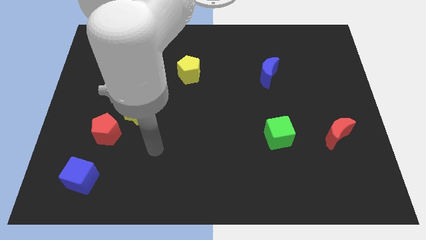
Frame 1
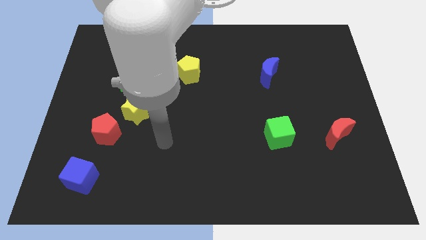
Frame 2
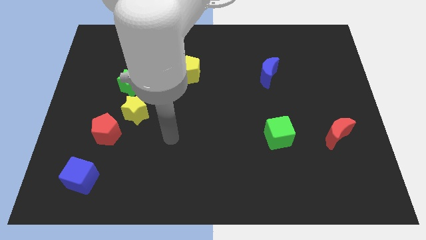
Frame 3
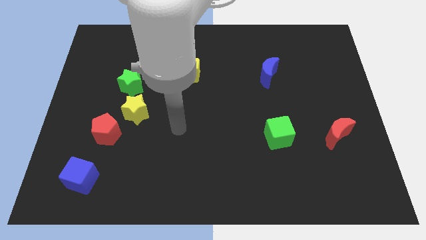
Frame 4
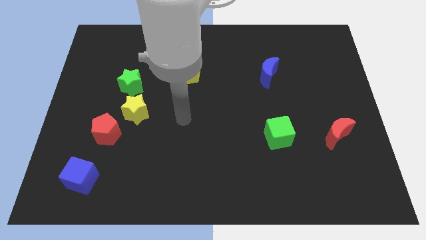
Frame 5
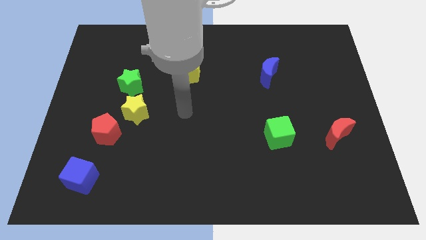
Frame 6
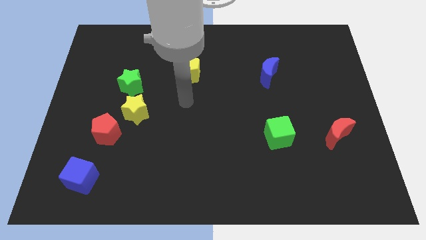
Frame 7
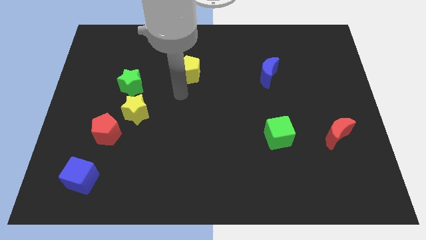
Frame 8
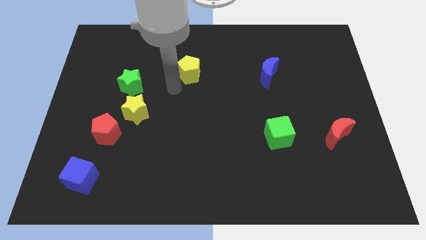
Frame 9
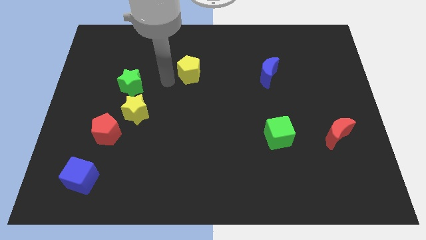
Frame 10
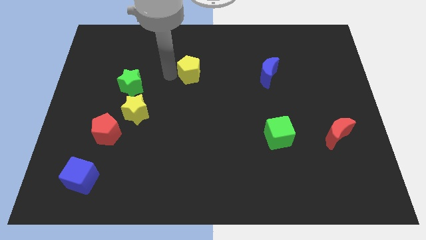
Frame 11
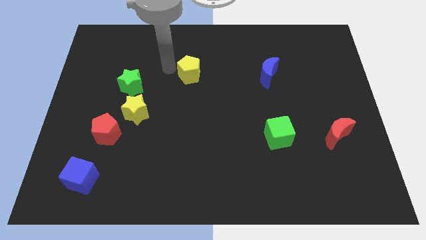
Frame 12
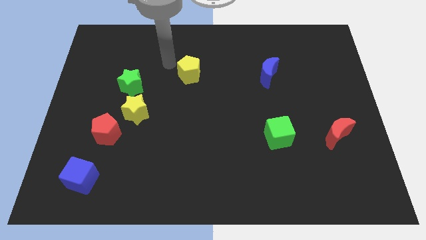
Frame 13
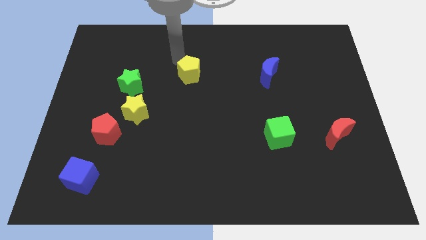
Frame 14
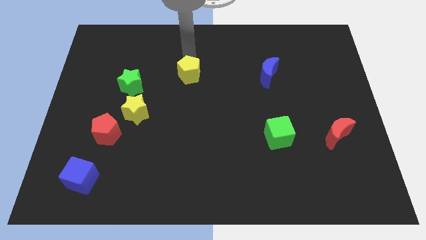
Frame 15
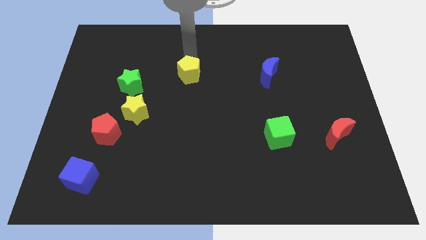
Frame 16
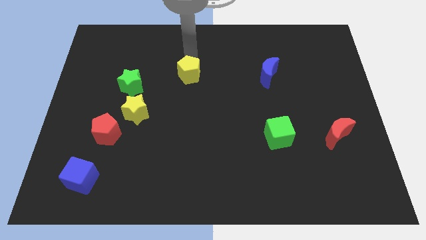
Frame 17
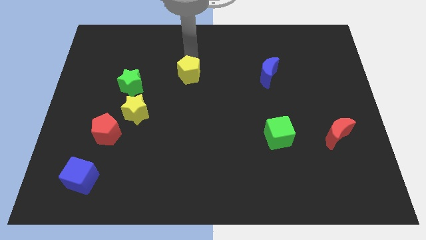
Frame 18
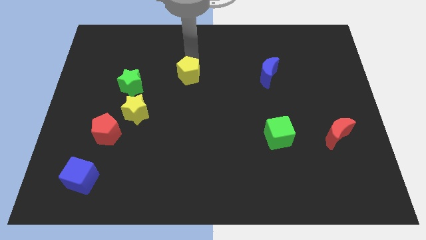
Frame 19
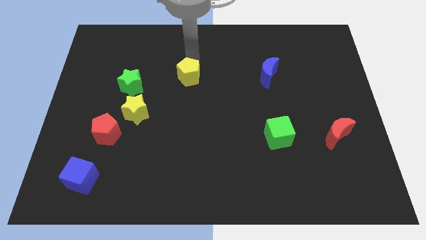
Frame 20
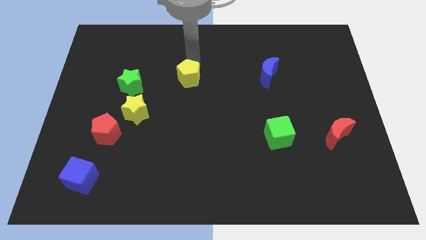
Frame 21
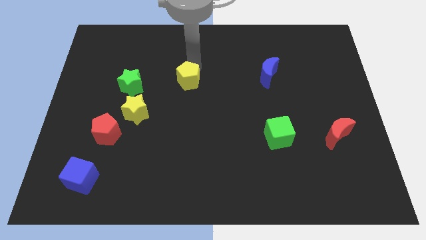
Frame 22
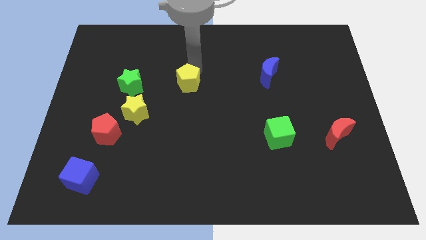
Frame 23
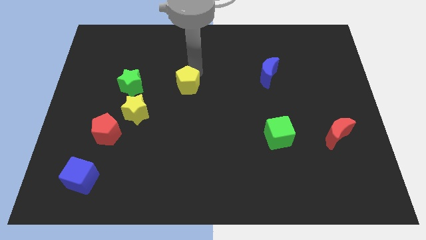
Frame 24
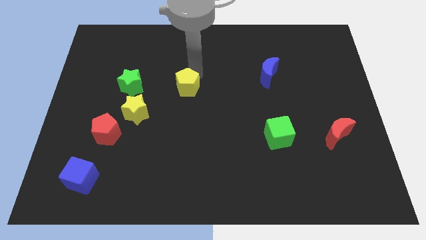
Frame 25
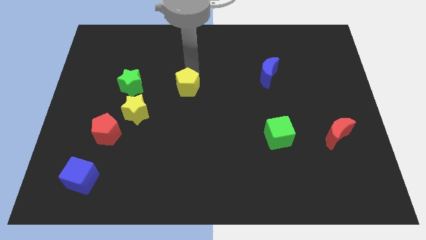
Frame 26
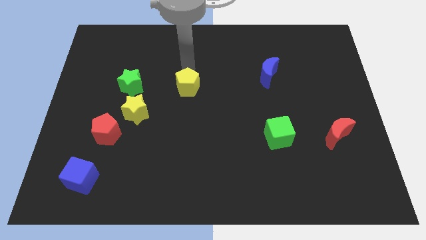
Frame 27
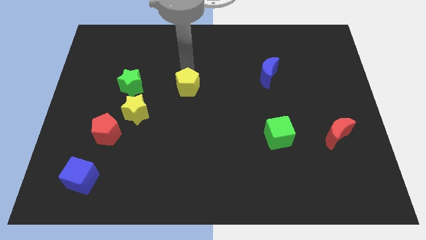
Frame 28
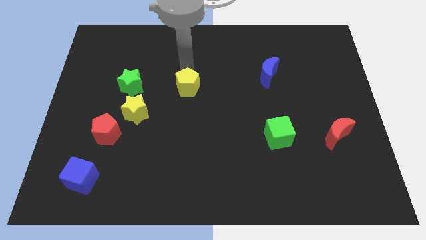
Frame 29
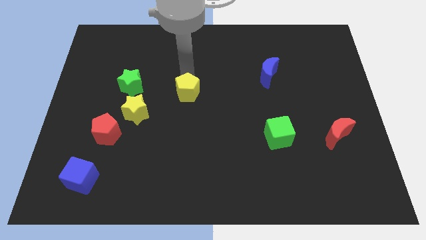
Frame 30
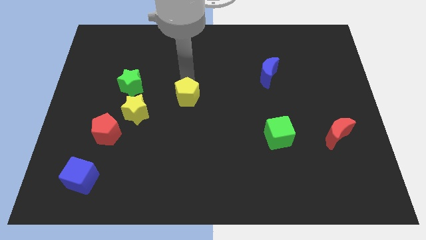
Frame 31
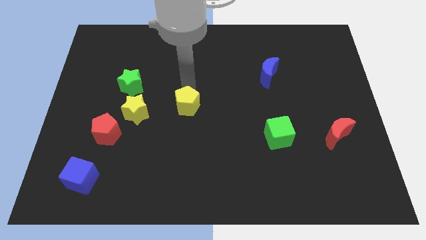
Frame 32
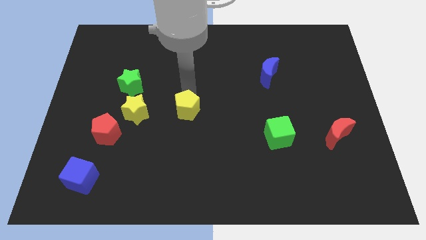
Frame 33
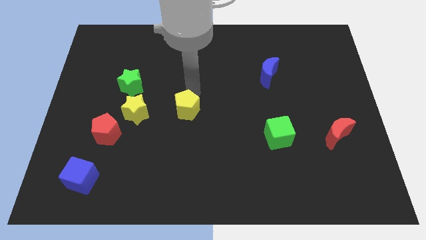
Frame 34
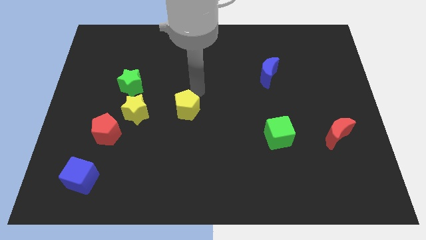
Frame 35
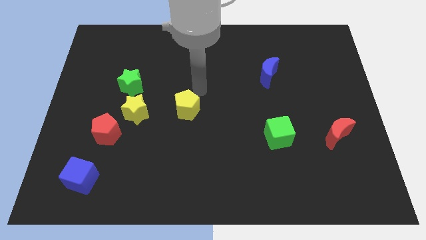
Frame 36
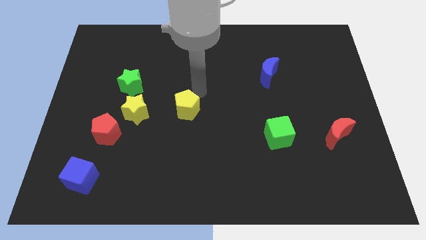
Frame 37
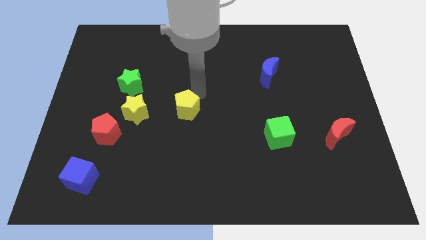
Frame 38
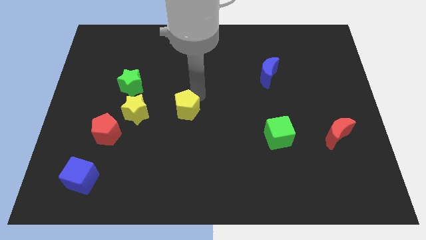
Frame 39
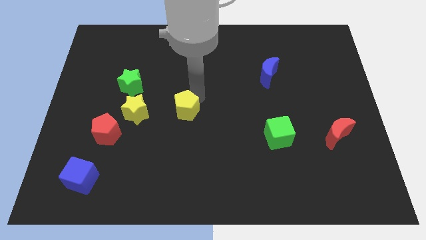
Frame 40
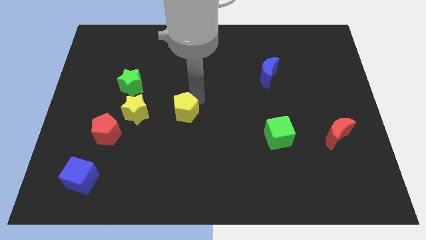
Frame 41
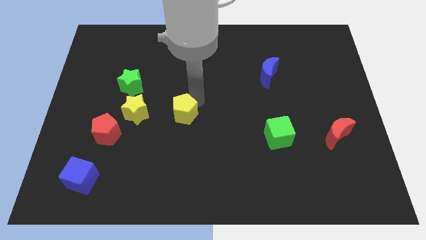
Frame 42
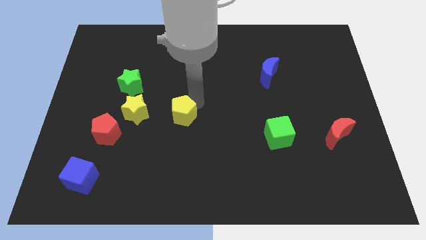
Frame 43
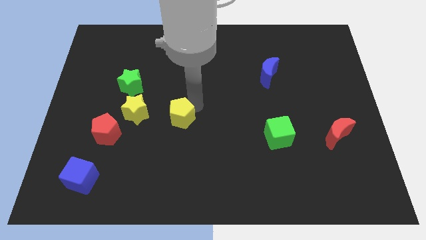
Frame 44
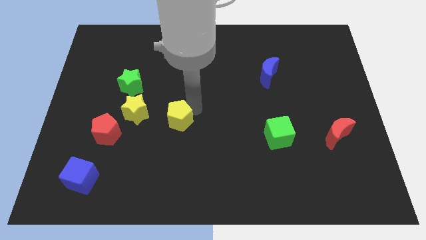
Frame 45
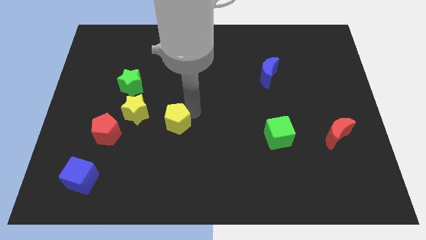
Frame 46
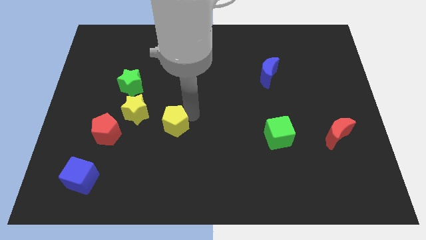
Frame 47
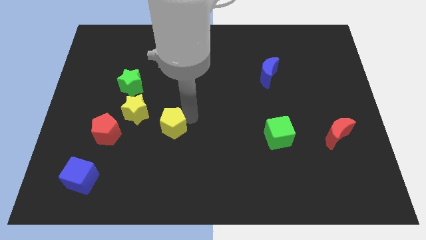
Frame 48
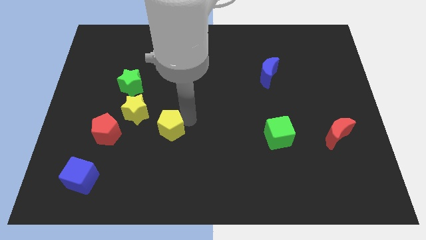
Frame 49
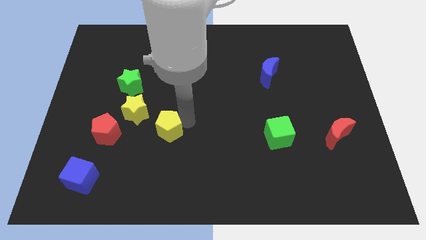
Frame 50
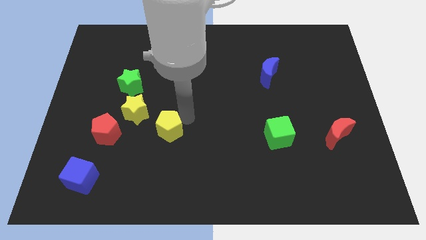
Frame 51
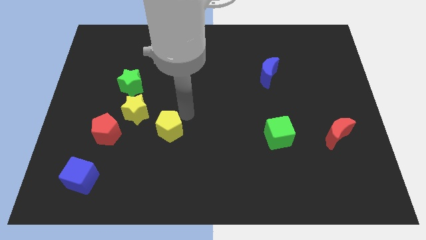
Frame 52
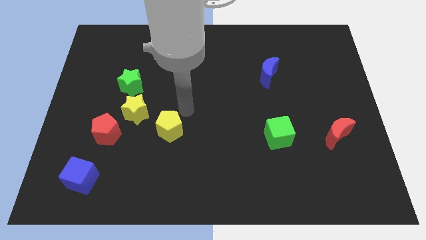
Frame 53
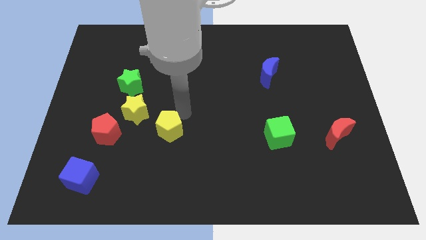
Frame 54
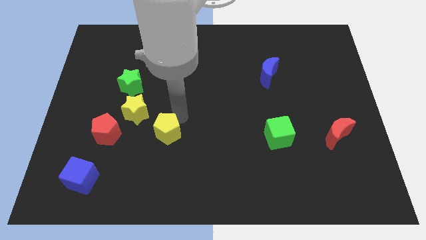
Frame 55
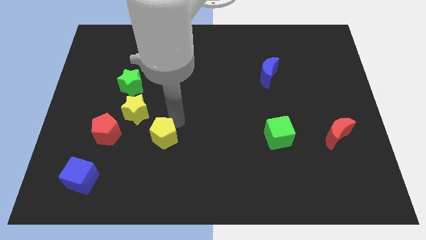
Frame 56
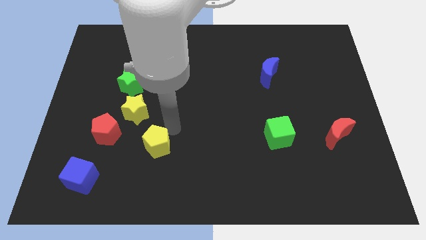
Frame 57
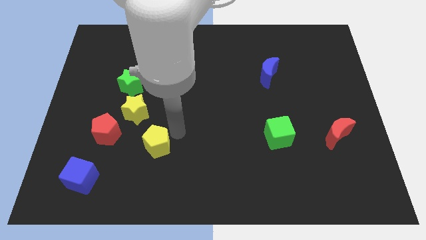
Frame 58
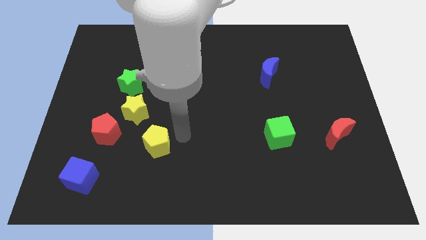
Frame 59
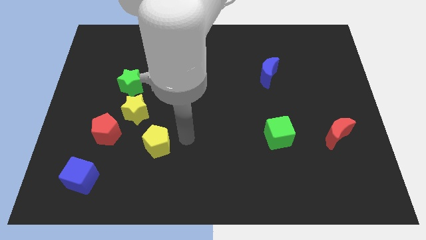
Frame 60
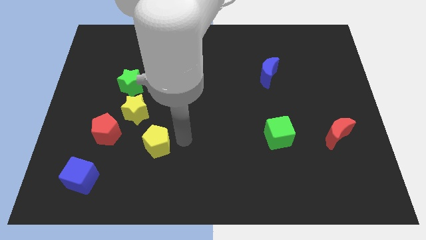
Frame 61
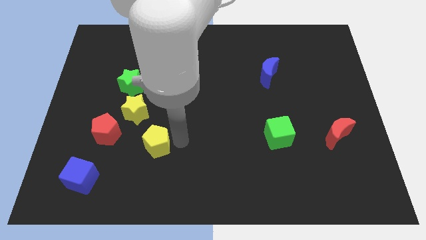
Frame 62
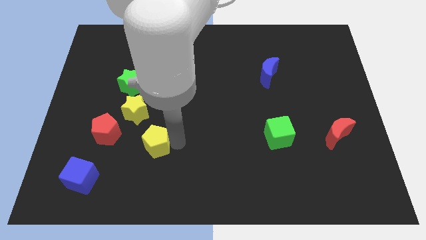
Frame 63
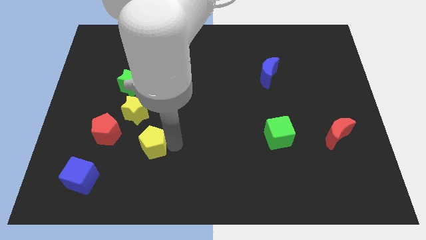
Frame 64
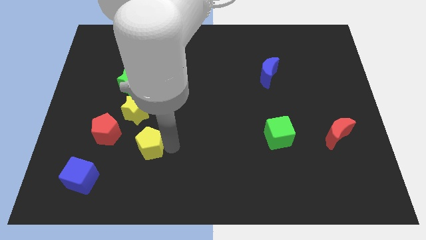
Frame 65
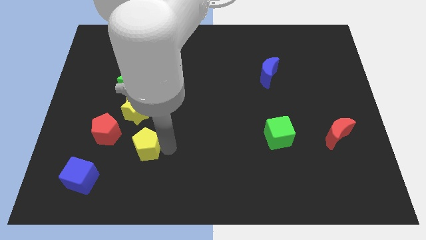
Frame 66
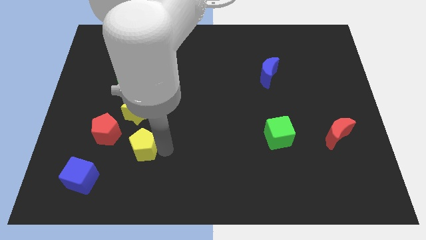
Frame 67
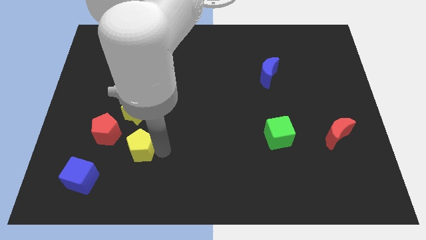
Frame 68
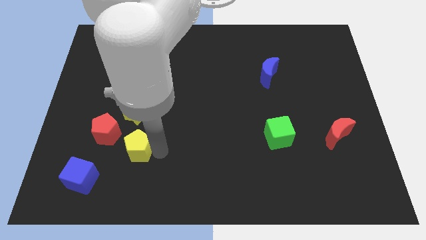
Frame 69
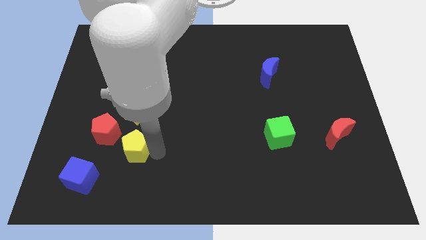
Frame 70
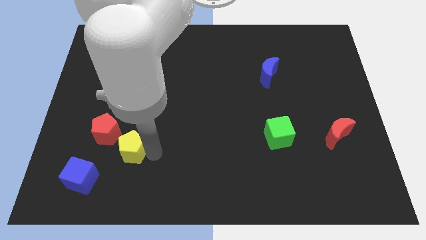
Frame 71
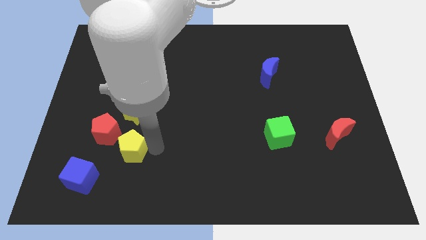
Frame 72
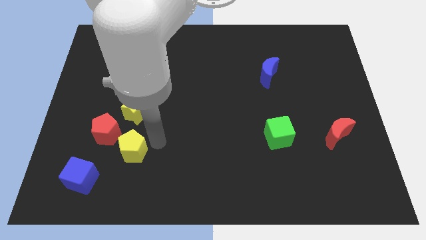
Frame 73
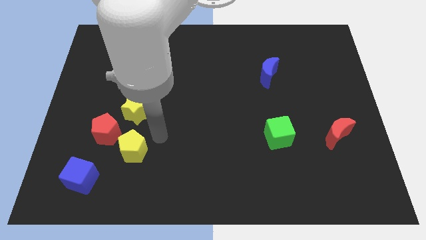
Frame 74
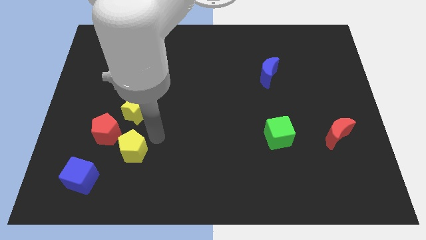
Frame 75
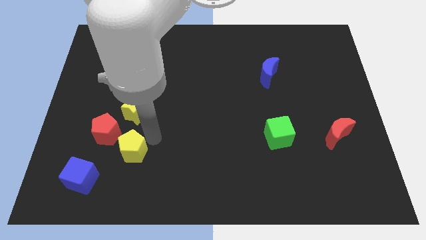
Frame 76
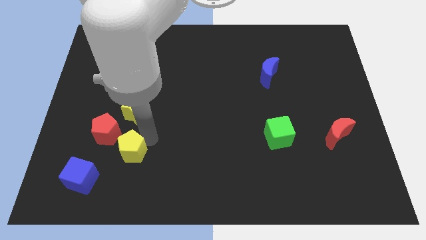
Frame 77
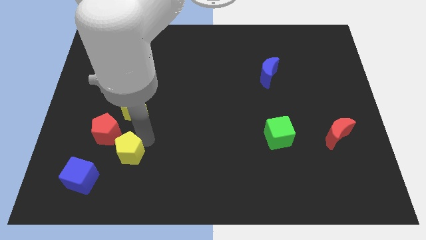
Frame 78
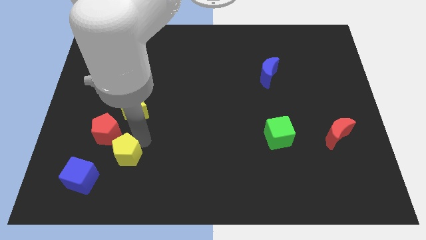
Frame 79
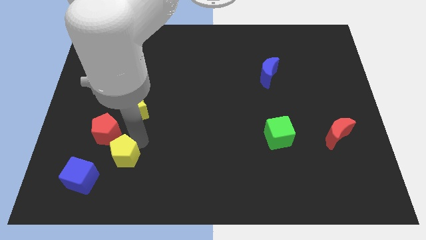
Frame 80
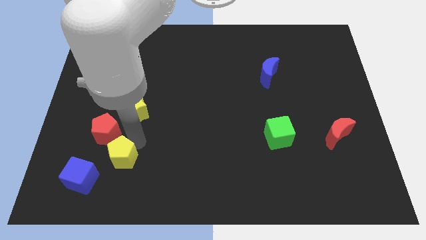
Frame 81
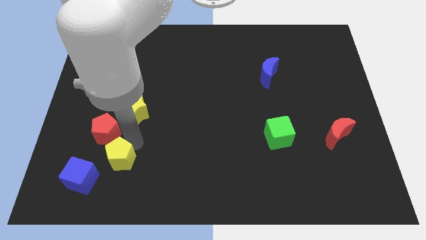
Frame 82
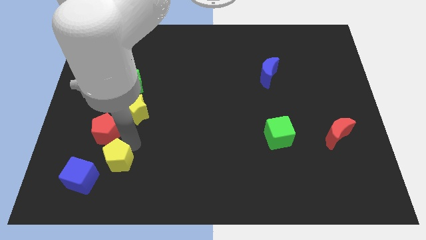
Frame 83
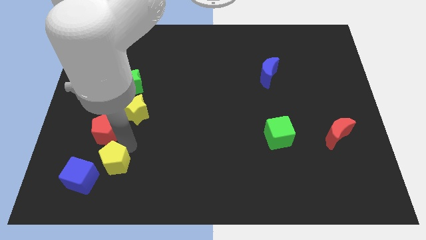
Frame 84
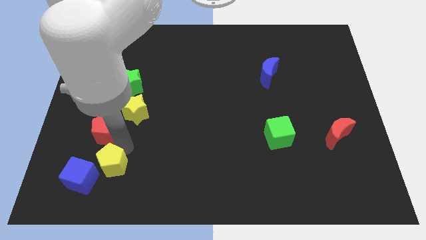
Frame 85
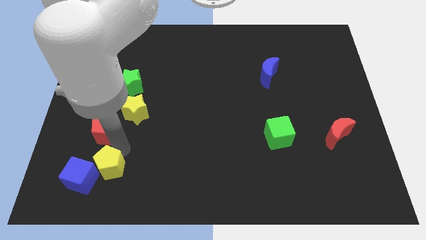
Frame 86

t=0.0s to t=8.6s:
slide the yellow pentagon towards the blue cube
